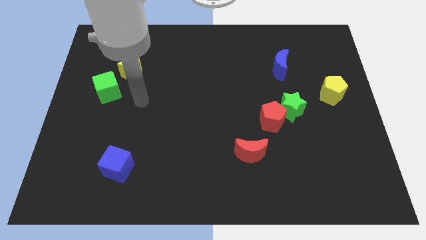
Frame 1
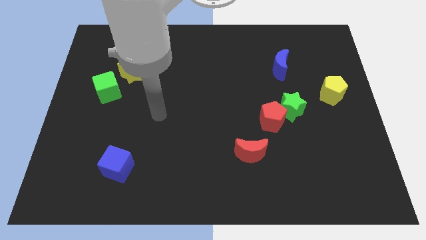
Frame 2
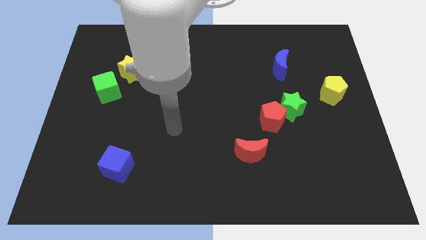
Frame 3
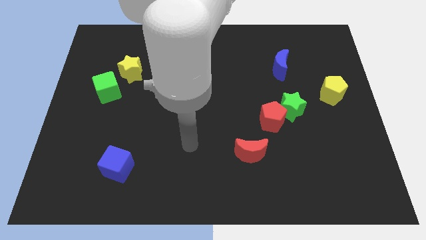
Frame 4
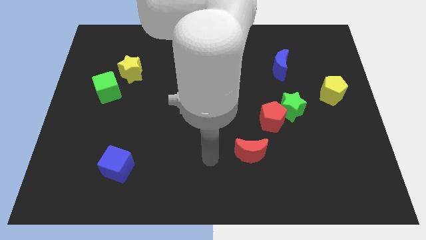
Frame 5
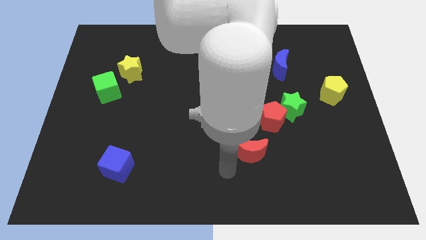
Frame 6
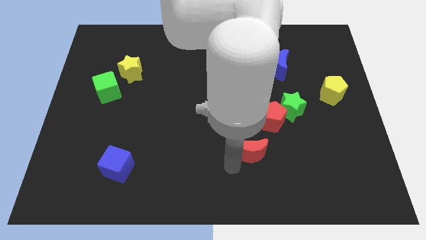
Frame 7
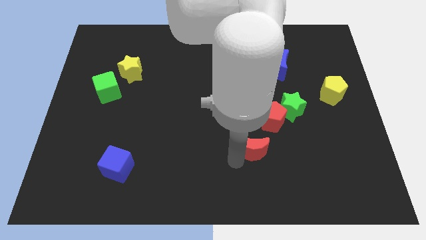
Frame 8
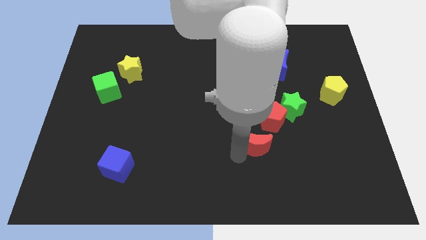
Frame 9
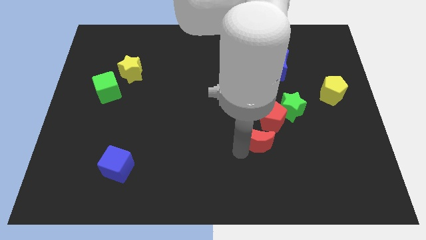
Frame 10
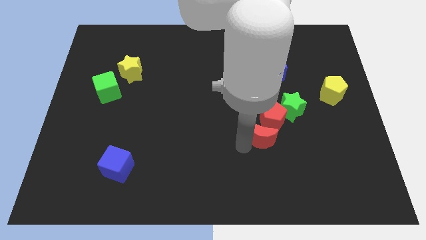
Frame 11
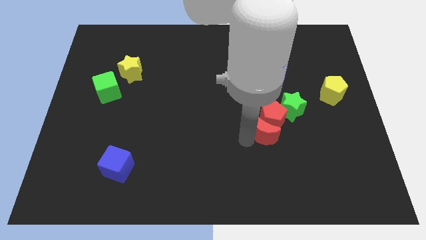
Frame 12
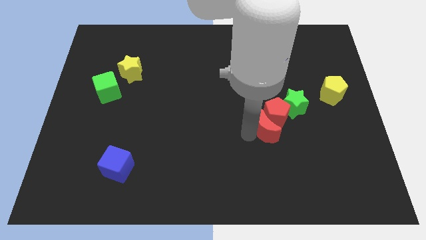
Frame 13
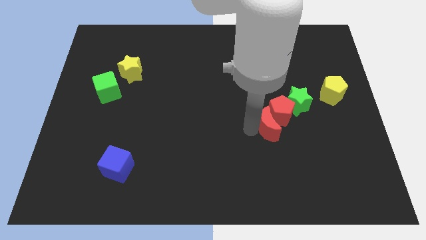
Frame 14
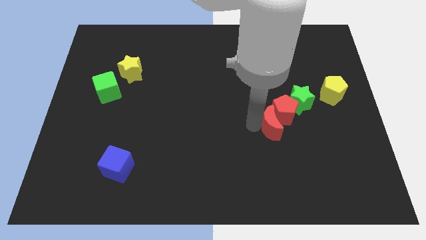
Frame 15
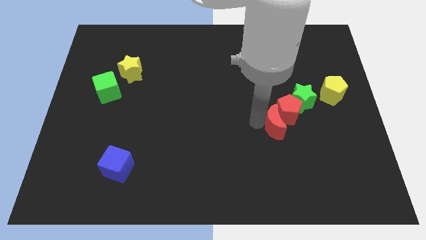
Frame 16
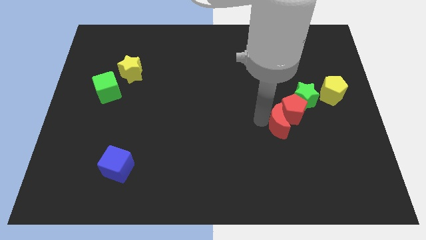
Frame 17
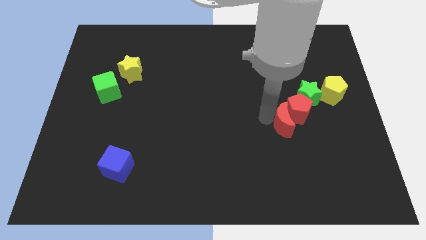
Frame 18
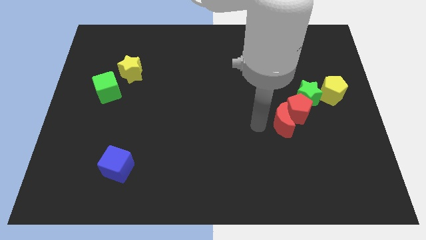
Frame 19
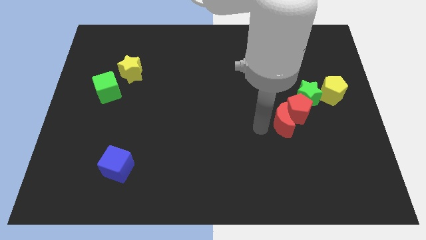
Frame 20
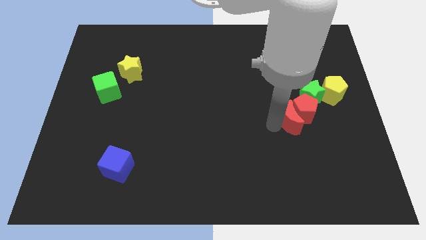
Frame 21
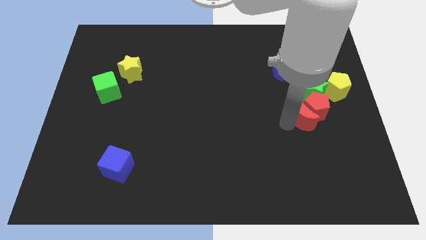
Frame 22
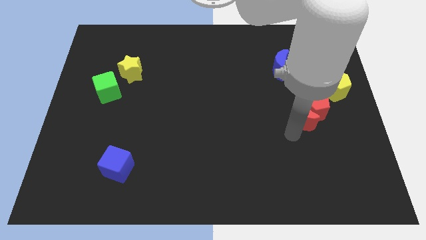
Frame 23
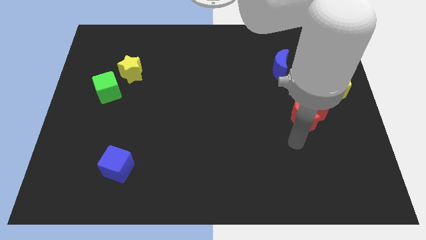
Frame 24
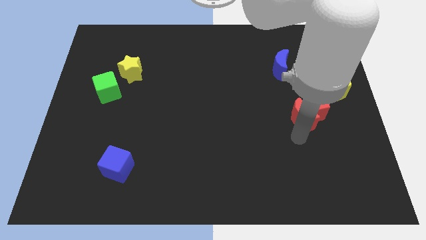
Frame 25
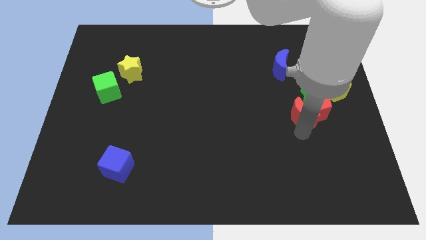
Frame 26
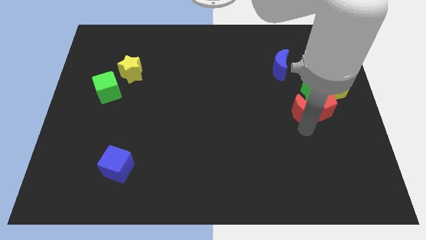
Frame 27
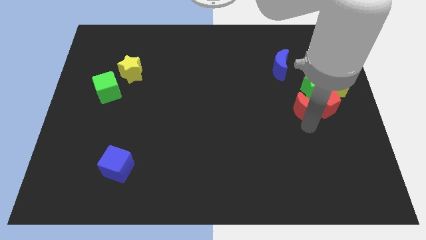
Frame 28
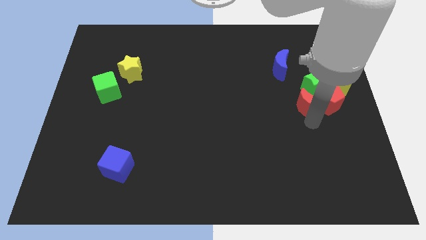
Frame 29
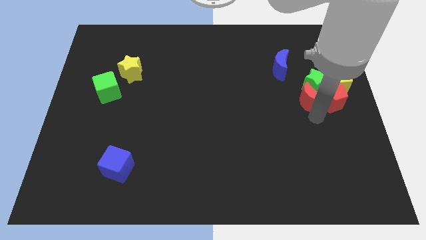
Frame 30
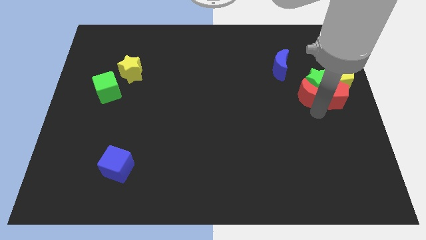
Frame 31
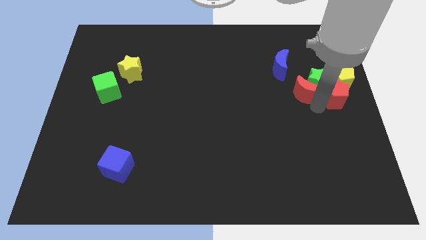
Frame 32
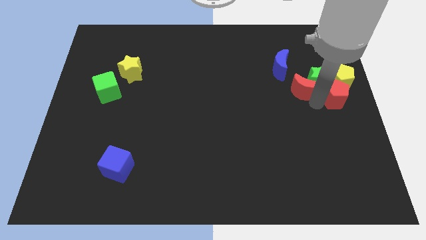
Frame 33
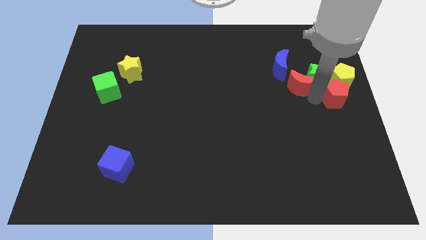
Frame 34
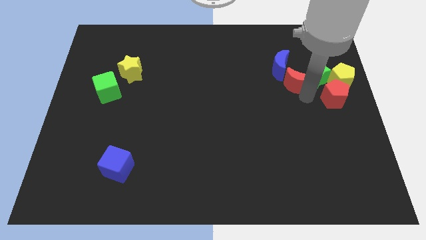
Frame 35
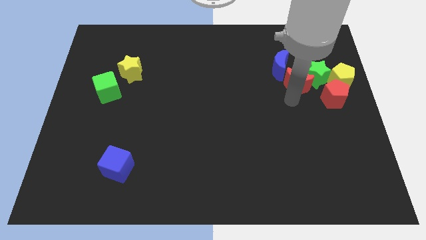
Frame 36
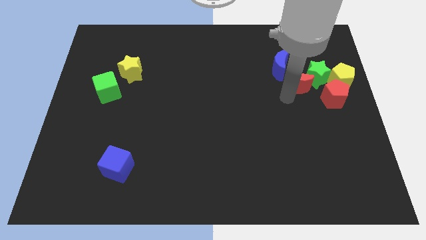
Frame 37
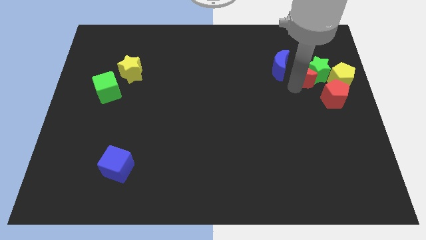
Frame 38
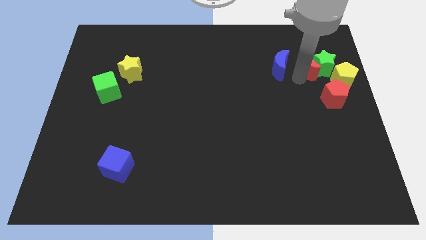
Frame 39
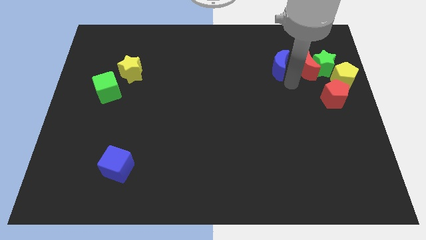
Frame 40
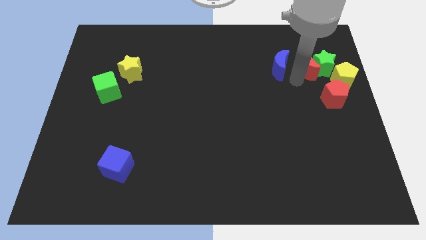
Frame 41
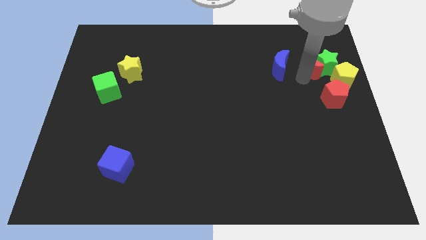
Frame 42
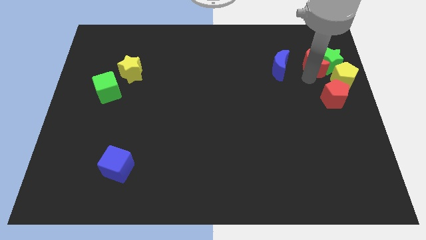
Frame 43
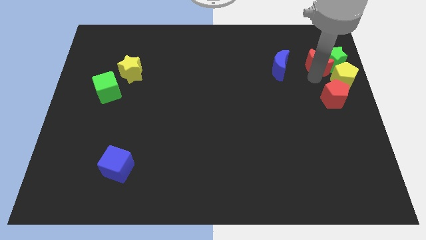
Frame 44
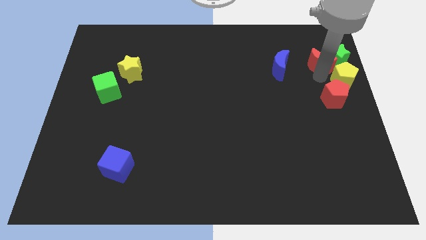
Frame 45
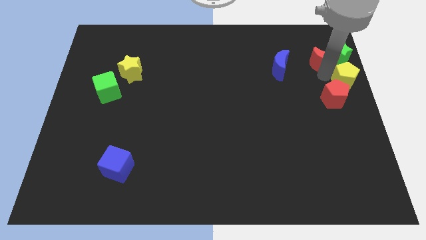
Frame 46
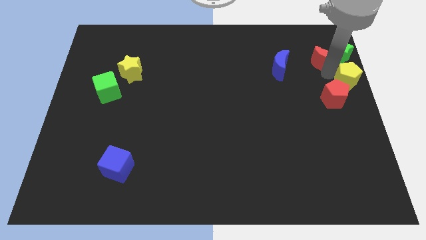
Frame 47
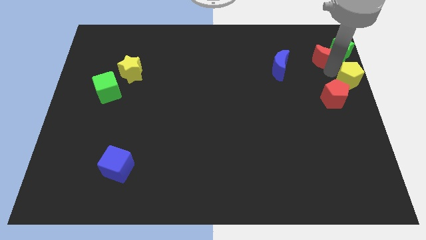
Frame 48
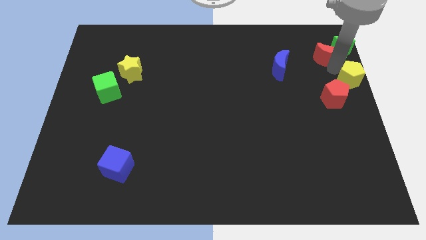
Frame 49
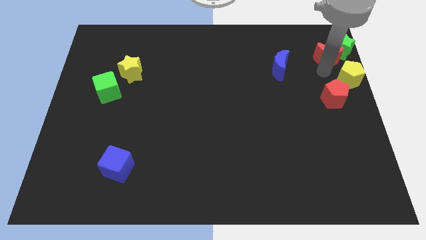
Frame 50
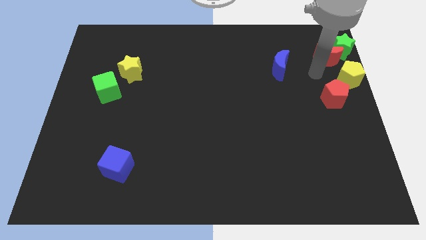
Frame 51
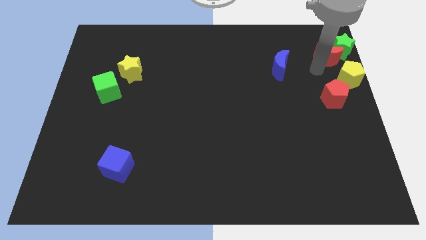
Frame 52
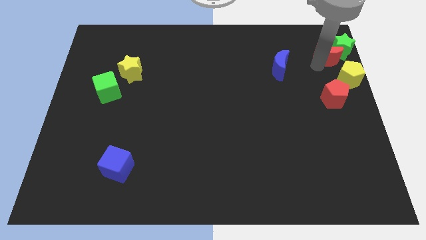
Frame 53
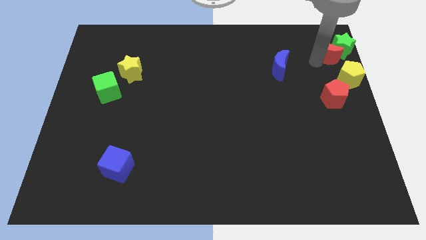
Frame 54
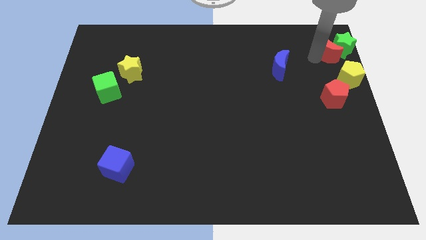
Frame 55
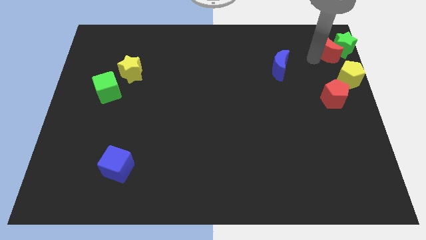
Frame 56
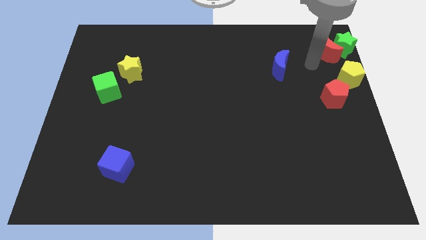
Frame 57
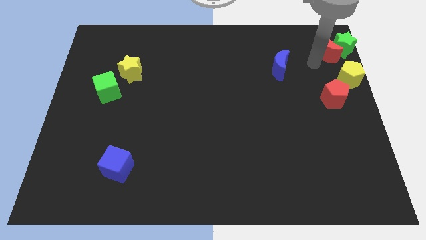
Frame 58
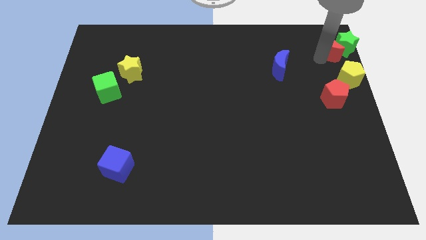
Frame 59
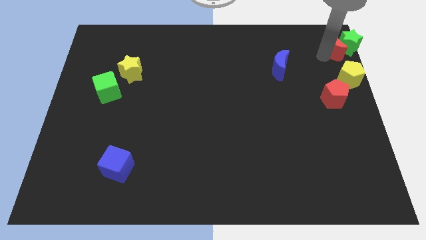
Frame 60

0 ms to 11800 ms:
slide the red moon to the upper right corner

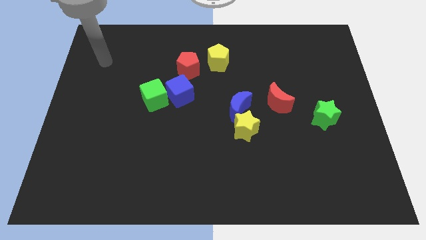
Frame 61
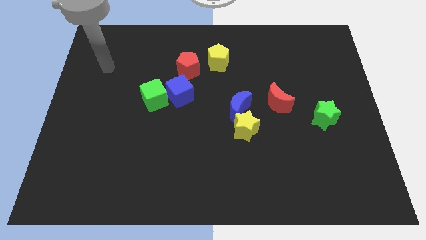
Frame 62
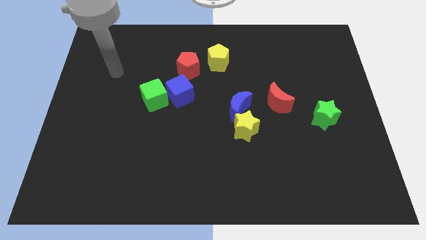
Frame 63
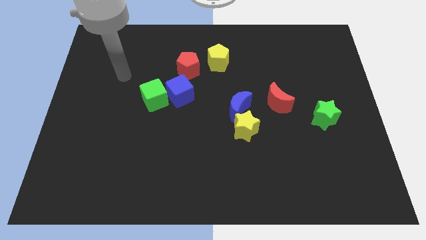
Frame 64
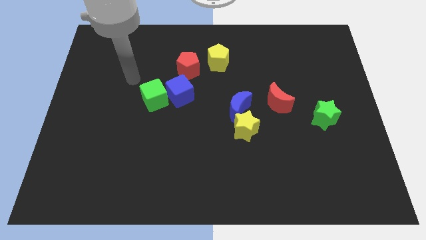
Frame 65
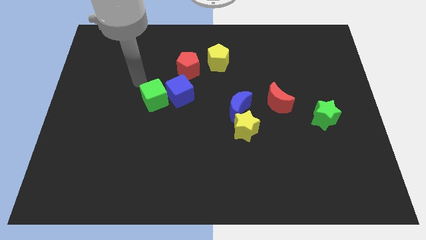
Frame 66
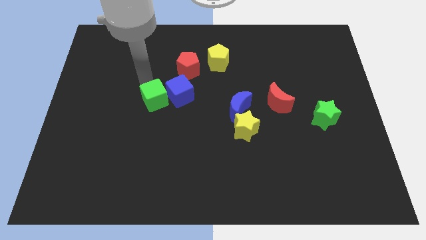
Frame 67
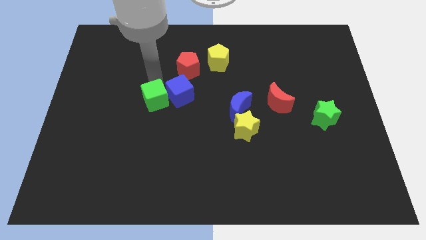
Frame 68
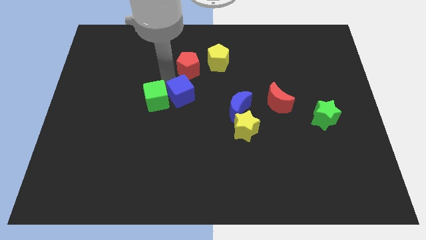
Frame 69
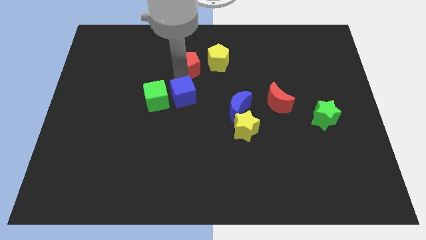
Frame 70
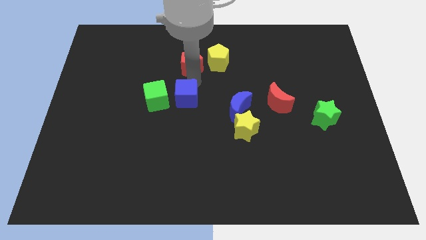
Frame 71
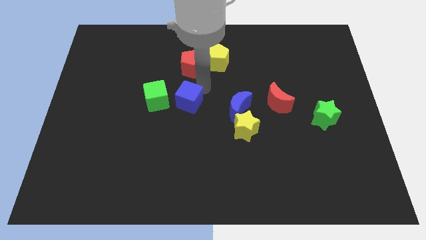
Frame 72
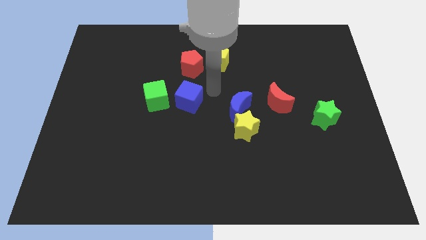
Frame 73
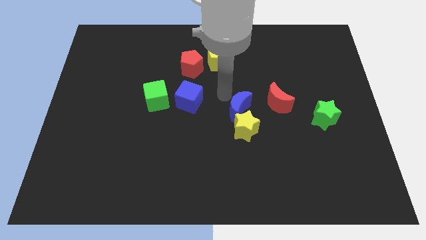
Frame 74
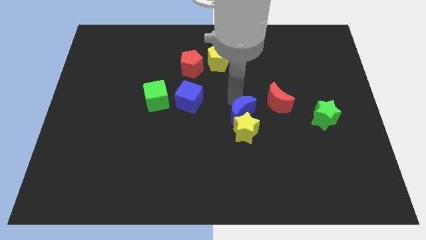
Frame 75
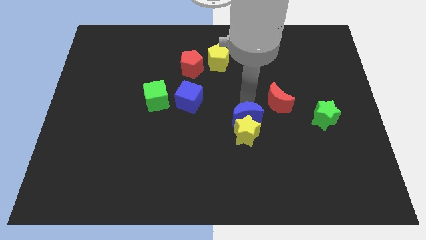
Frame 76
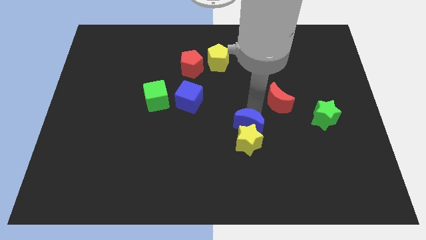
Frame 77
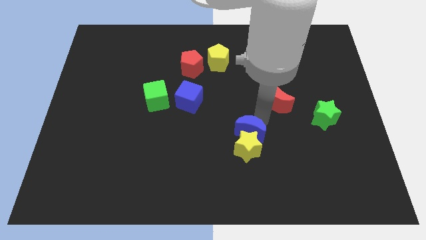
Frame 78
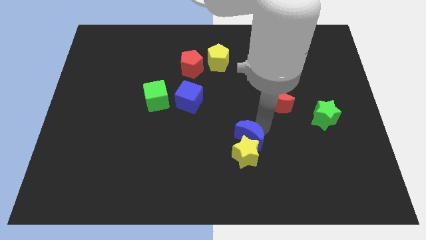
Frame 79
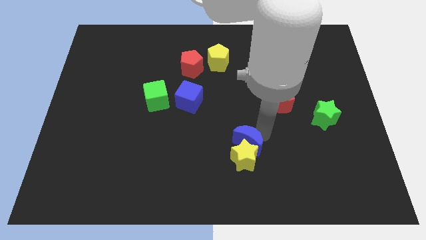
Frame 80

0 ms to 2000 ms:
push the yellow star to the bottom side
